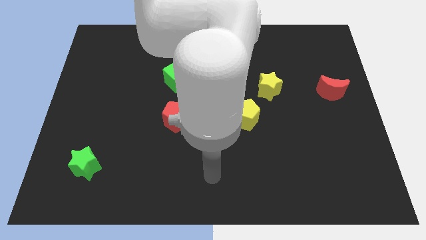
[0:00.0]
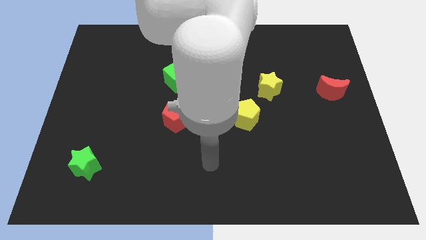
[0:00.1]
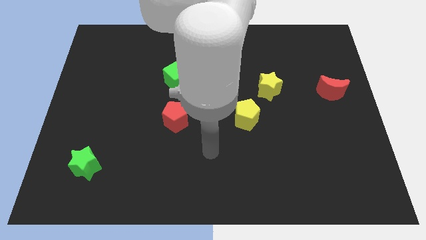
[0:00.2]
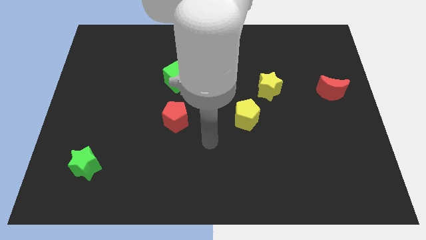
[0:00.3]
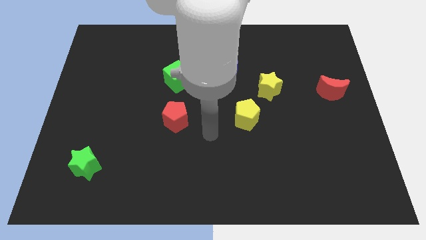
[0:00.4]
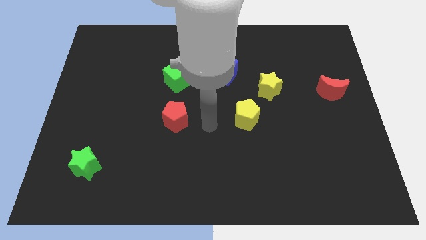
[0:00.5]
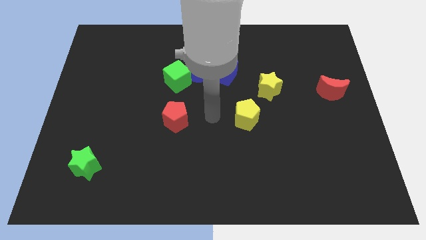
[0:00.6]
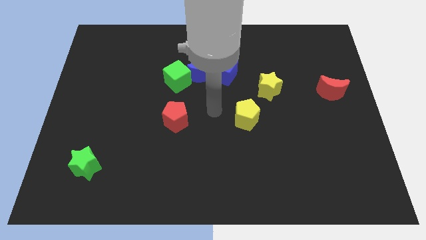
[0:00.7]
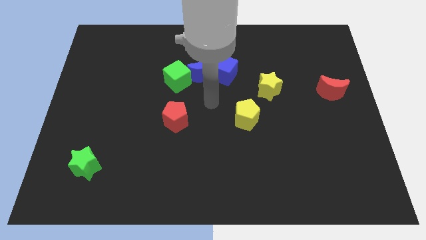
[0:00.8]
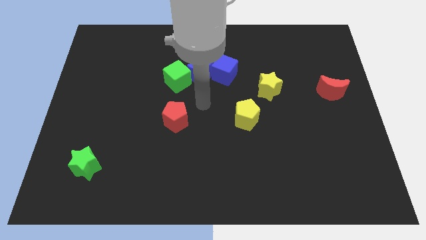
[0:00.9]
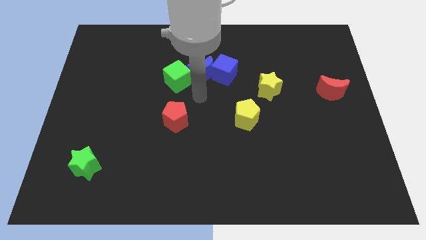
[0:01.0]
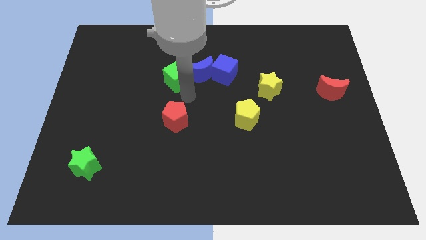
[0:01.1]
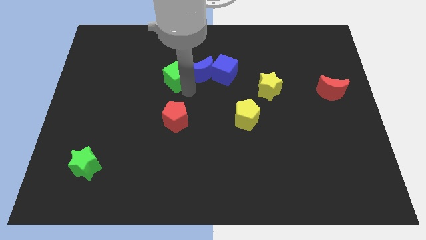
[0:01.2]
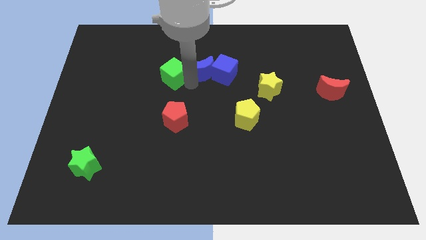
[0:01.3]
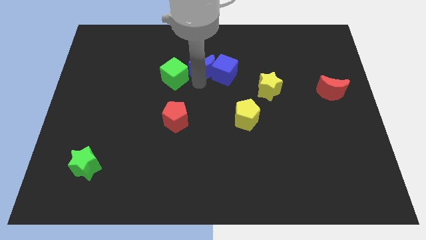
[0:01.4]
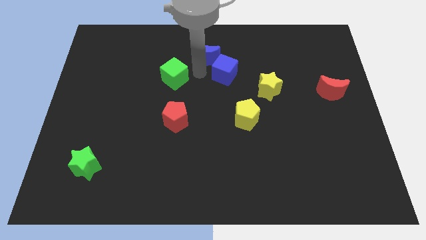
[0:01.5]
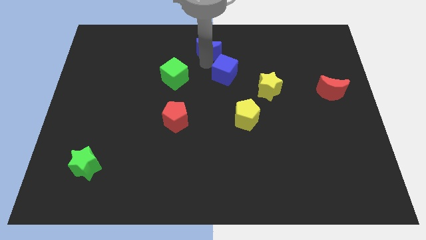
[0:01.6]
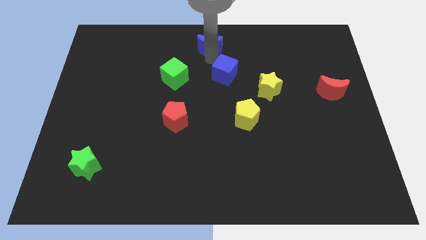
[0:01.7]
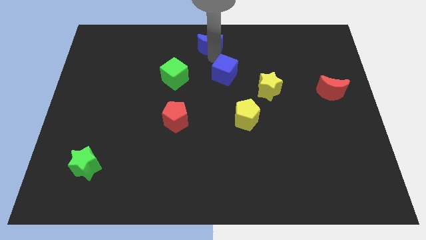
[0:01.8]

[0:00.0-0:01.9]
pull the blue cube apart from the blue moon

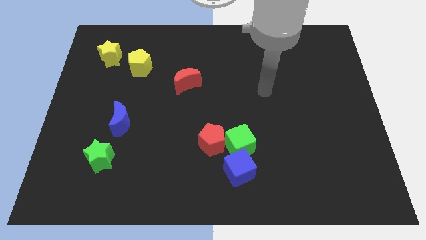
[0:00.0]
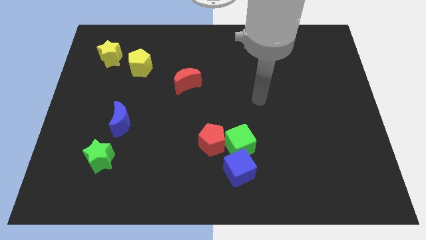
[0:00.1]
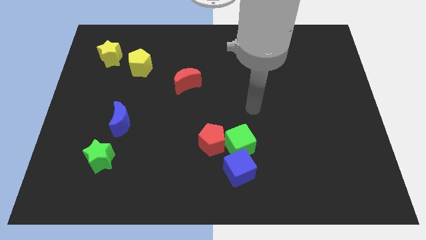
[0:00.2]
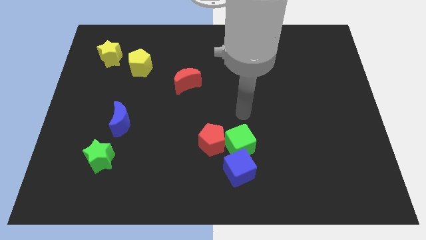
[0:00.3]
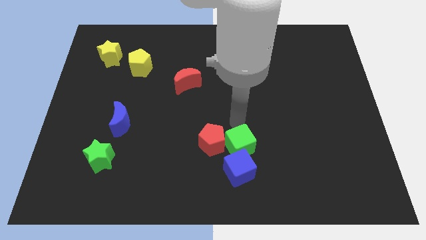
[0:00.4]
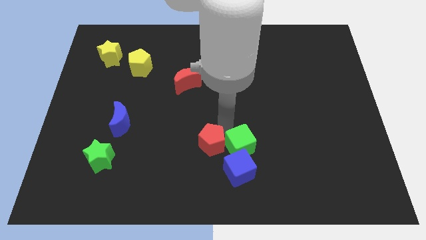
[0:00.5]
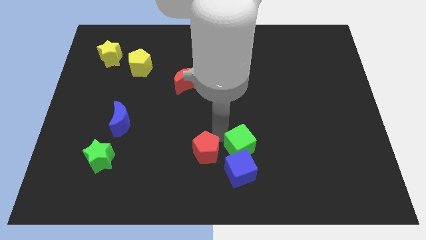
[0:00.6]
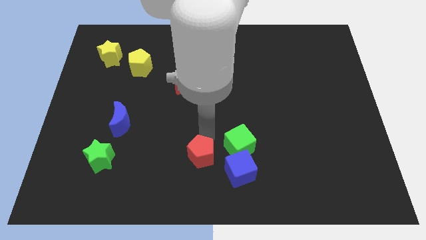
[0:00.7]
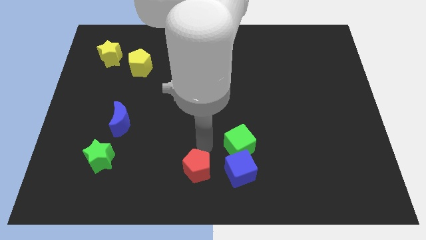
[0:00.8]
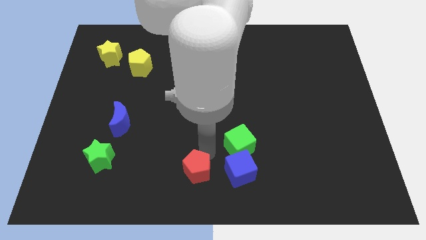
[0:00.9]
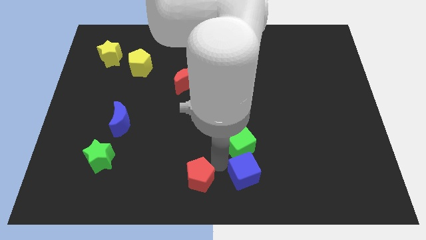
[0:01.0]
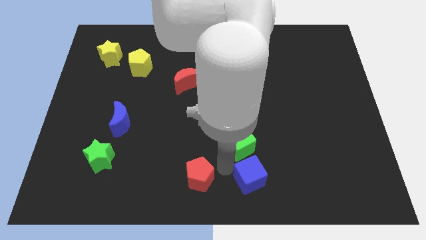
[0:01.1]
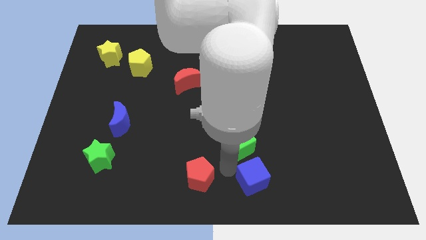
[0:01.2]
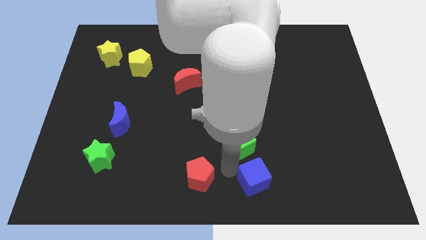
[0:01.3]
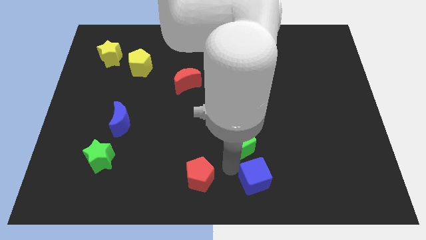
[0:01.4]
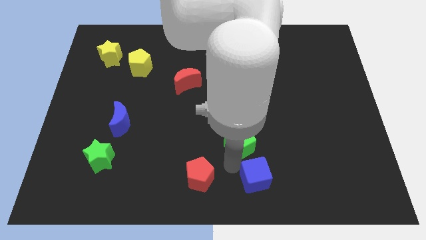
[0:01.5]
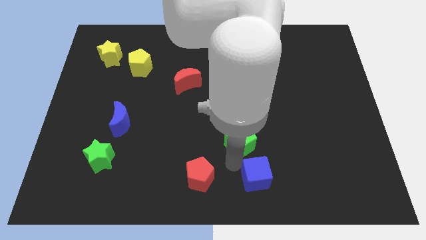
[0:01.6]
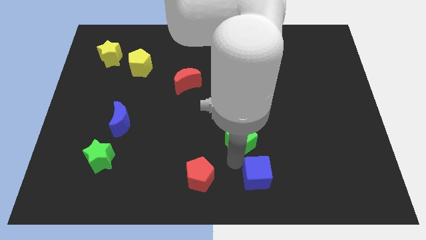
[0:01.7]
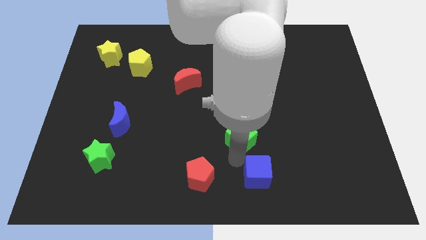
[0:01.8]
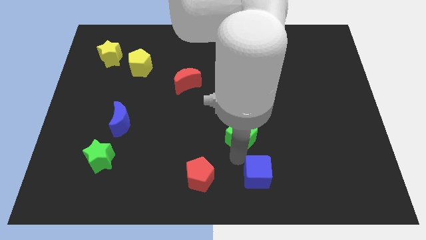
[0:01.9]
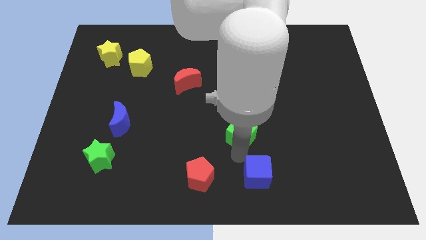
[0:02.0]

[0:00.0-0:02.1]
move the green cube away from the red pentagon and blue cube

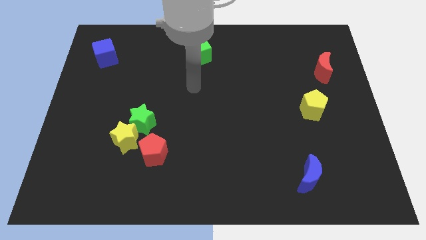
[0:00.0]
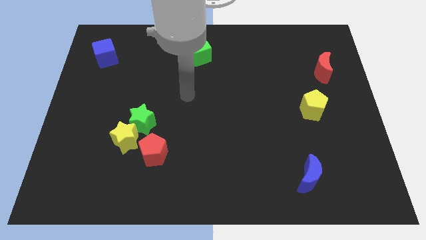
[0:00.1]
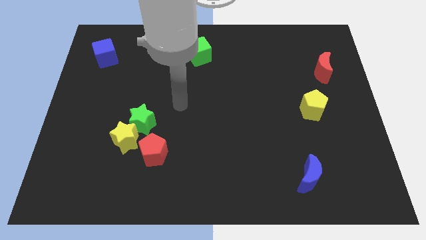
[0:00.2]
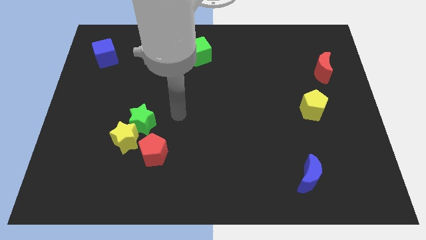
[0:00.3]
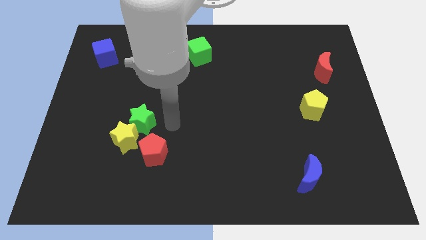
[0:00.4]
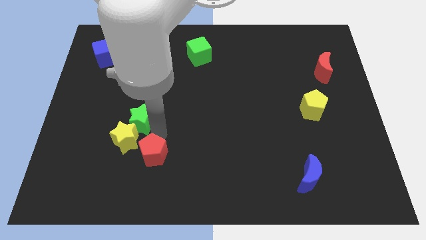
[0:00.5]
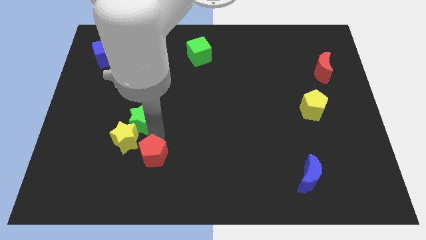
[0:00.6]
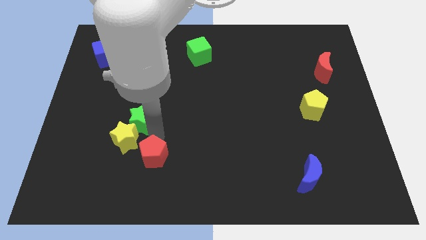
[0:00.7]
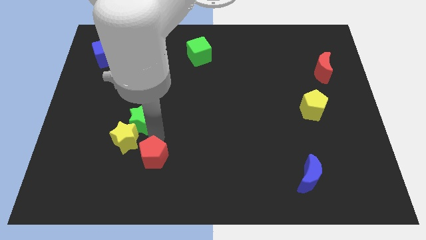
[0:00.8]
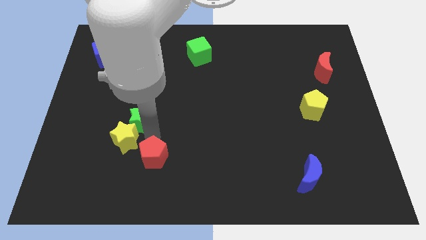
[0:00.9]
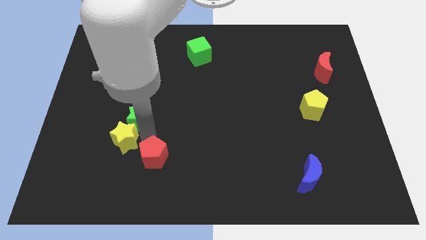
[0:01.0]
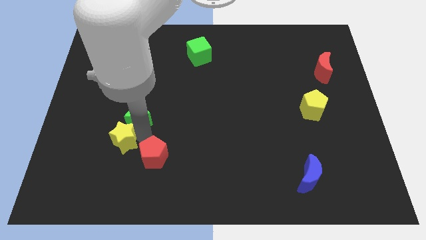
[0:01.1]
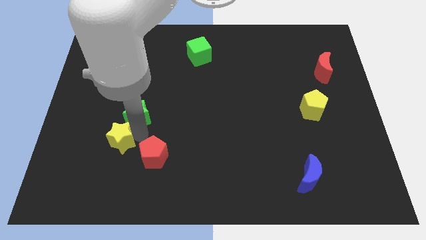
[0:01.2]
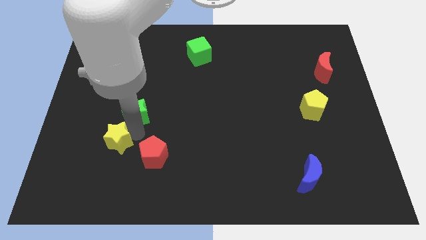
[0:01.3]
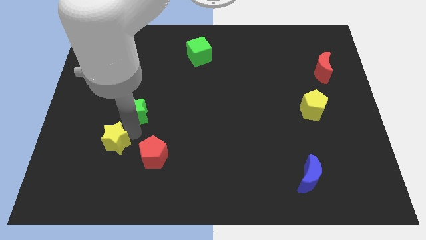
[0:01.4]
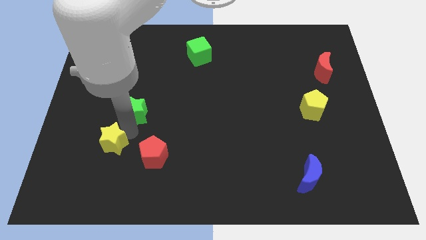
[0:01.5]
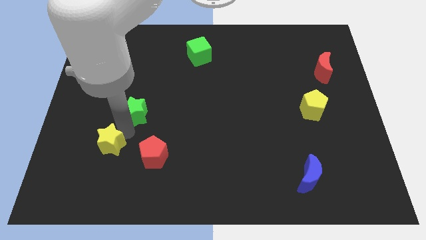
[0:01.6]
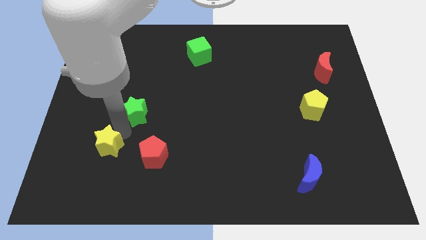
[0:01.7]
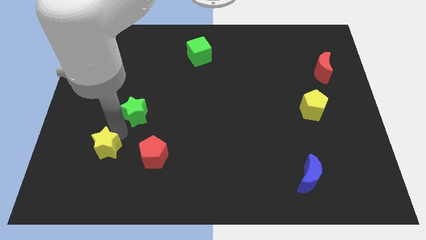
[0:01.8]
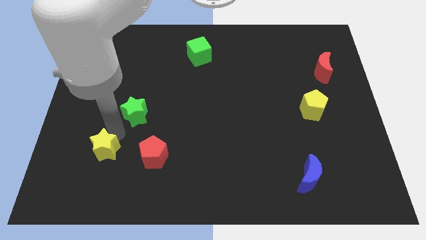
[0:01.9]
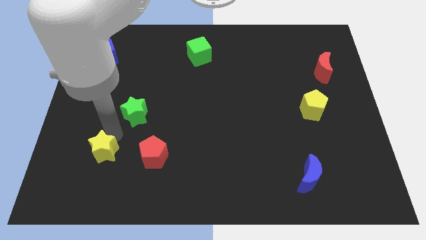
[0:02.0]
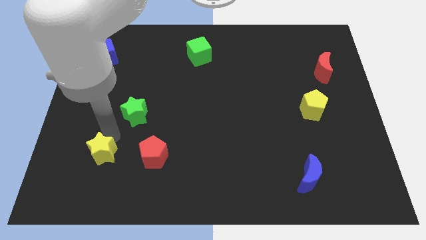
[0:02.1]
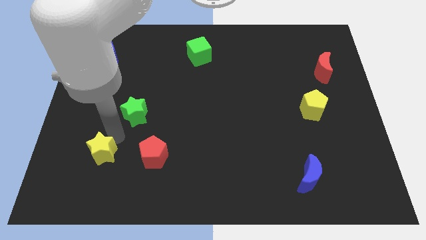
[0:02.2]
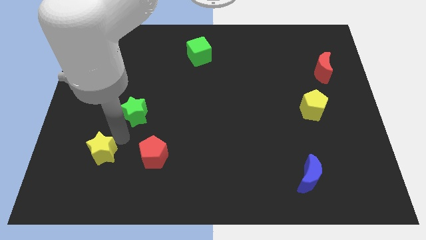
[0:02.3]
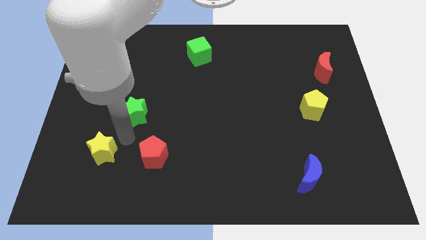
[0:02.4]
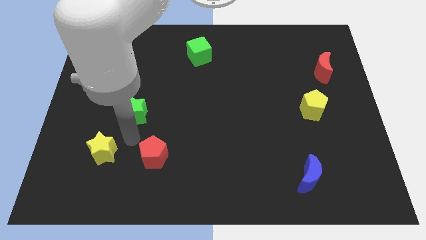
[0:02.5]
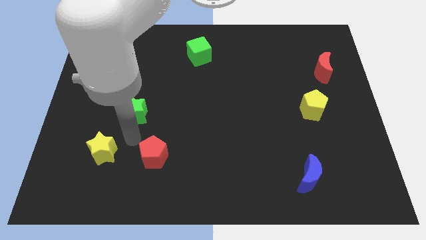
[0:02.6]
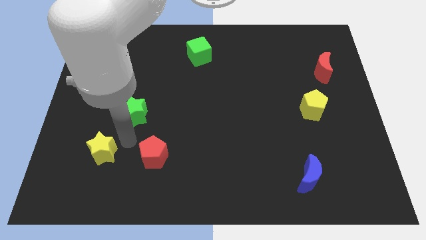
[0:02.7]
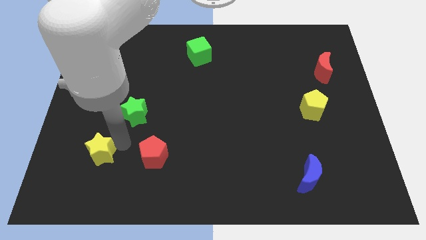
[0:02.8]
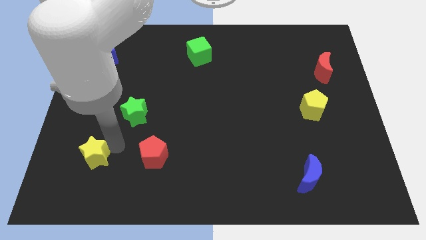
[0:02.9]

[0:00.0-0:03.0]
pull the yellow star apart from the green star and red pentagon

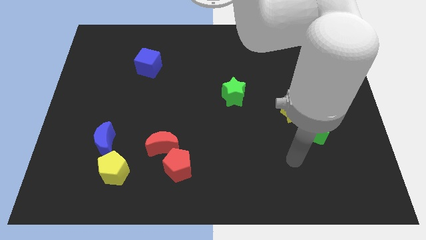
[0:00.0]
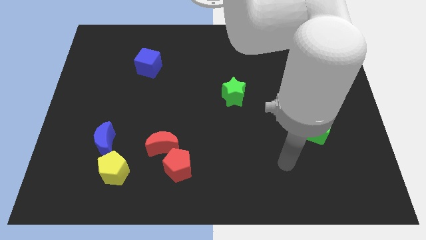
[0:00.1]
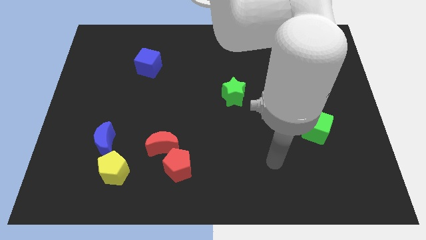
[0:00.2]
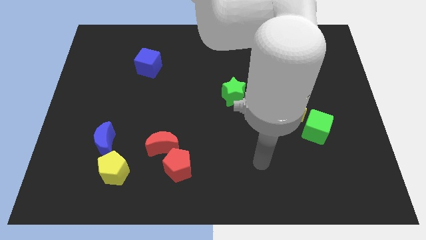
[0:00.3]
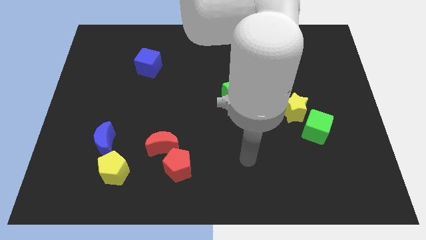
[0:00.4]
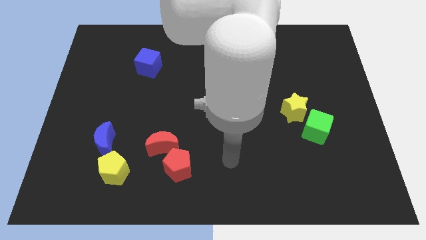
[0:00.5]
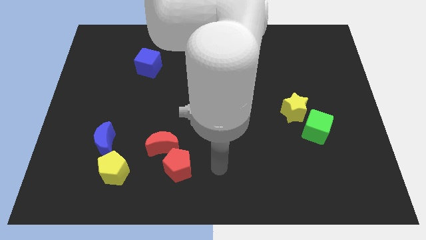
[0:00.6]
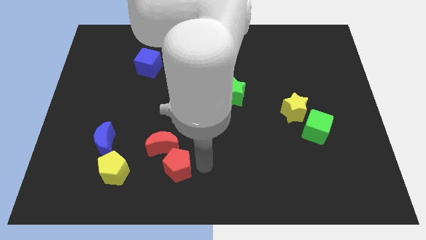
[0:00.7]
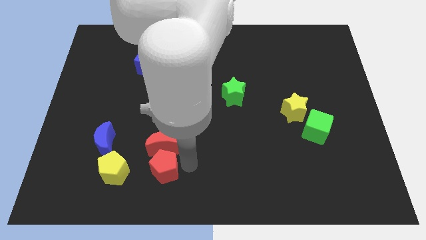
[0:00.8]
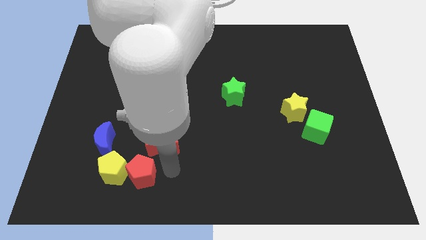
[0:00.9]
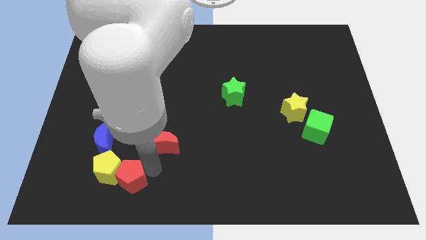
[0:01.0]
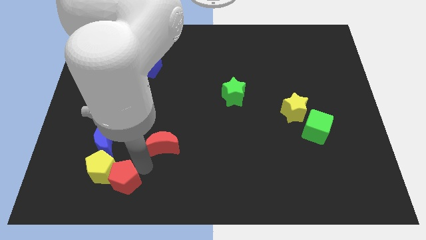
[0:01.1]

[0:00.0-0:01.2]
separate the red moon from the red pentagon

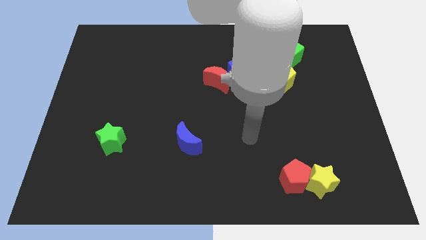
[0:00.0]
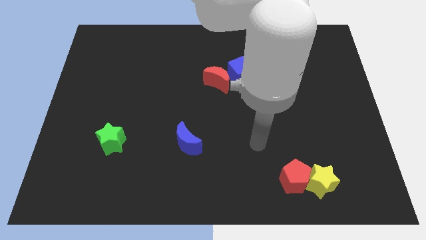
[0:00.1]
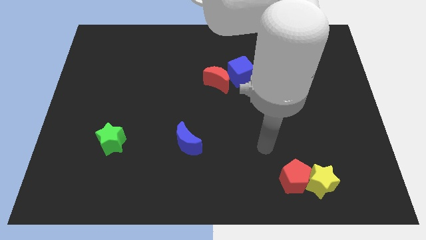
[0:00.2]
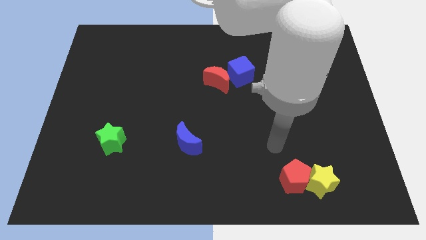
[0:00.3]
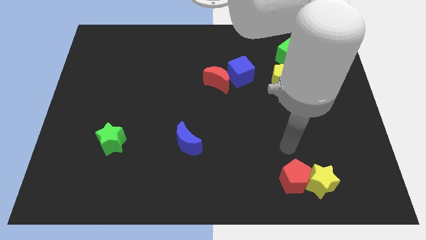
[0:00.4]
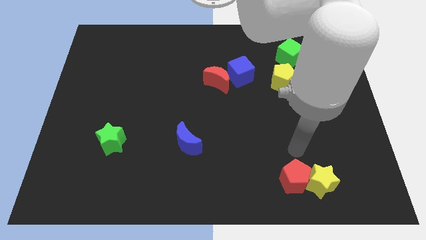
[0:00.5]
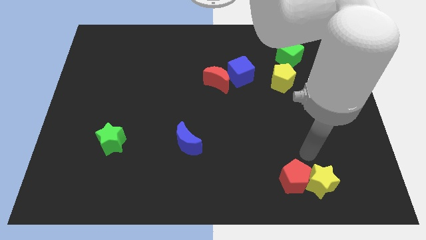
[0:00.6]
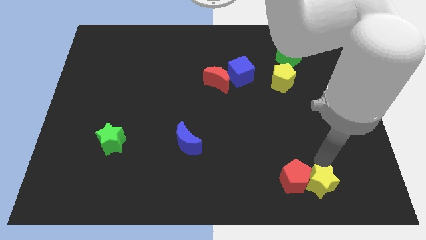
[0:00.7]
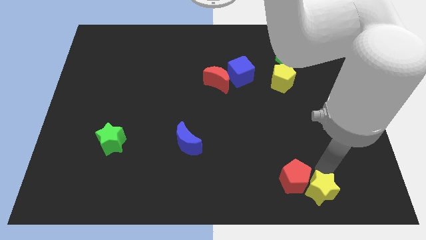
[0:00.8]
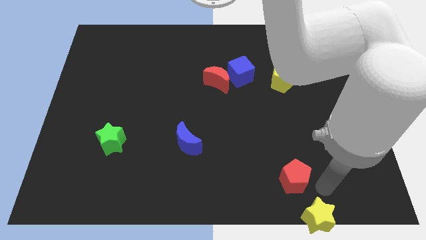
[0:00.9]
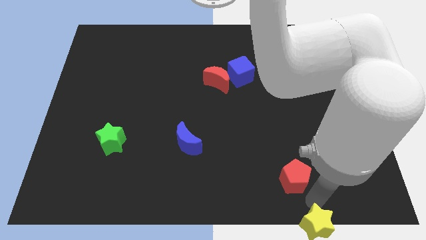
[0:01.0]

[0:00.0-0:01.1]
separate the red pentagon from the yellow star

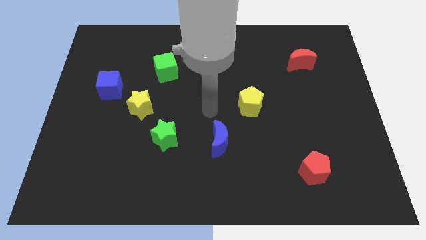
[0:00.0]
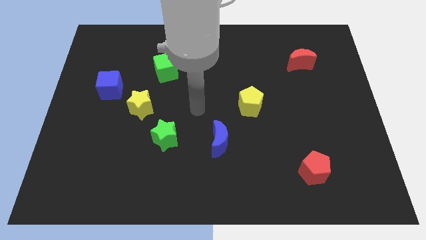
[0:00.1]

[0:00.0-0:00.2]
move the blue cube away from the yellow star

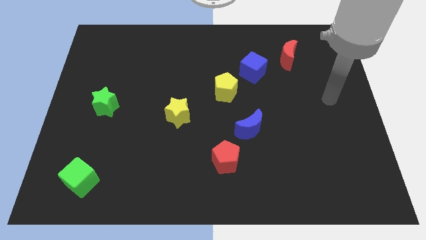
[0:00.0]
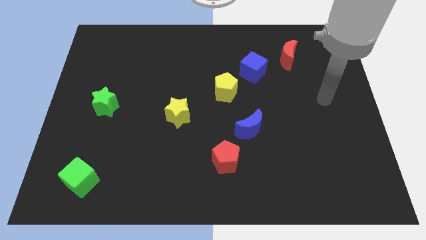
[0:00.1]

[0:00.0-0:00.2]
pull the blue cube apart from the yellow pentagon
